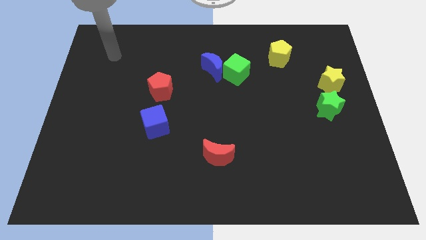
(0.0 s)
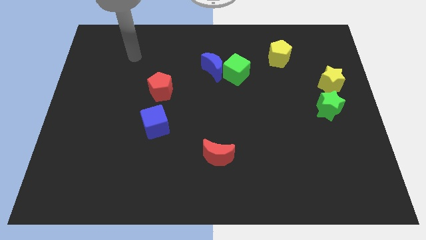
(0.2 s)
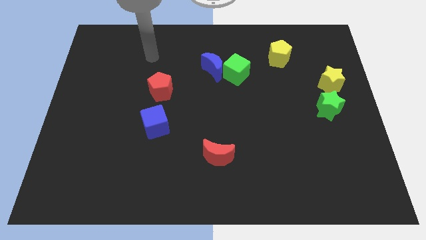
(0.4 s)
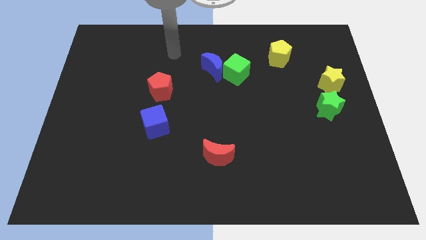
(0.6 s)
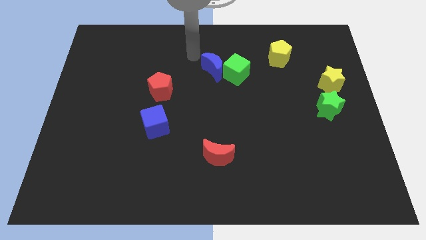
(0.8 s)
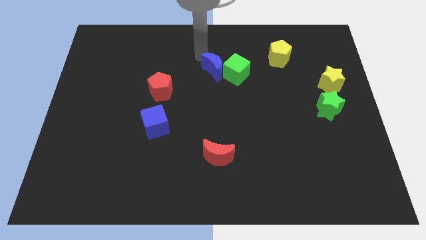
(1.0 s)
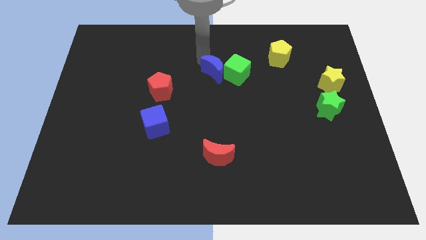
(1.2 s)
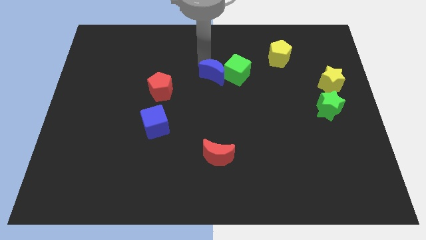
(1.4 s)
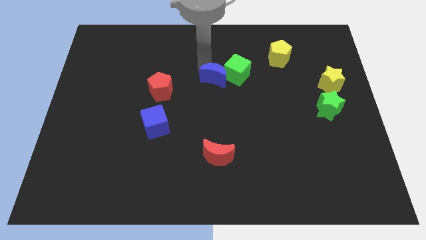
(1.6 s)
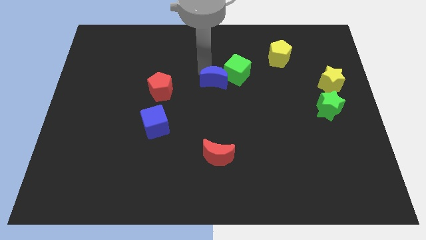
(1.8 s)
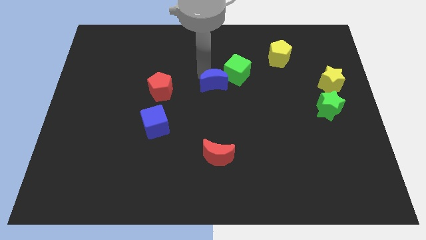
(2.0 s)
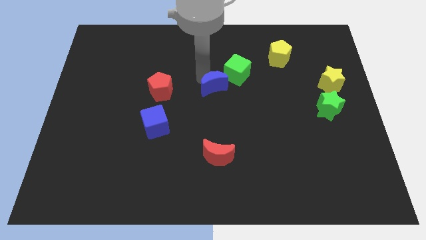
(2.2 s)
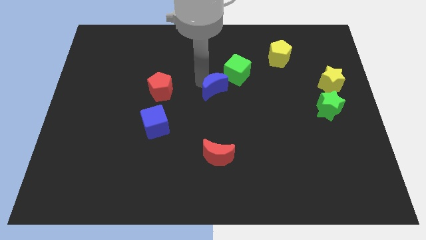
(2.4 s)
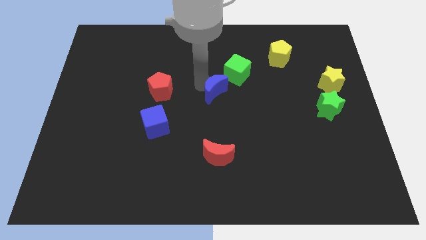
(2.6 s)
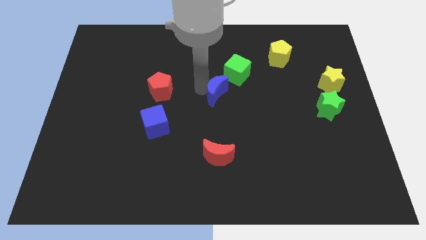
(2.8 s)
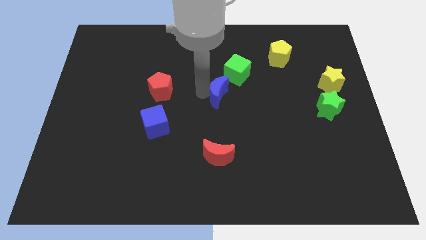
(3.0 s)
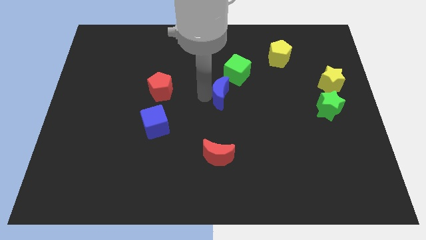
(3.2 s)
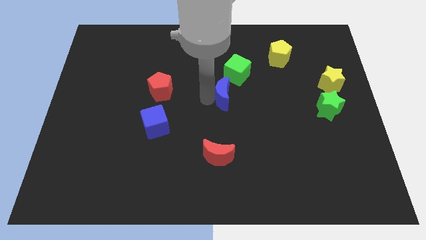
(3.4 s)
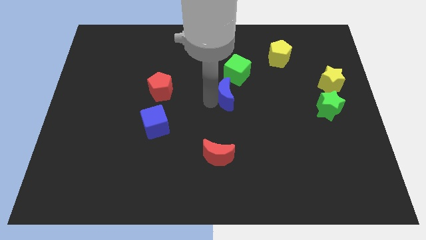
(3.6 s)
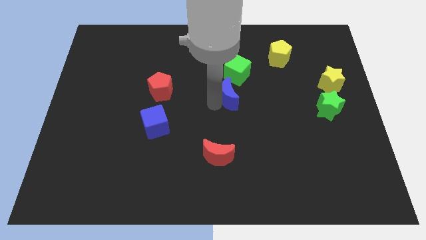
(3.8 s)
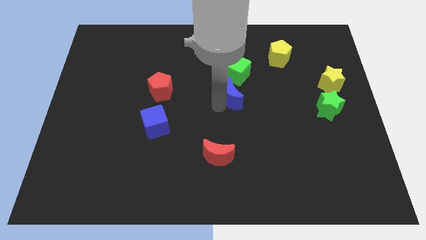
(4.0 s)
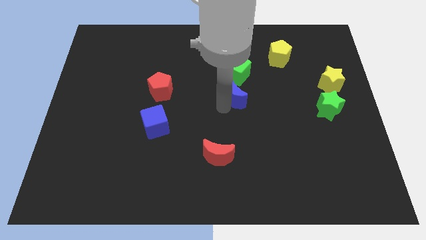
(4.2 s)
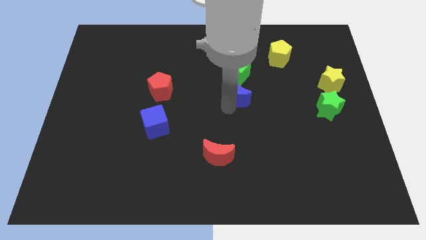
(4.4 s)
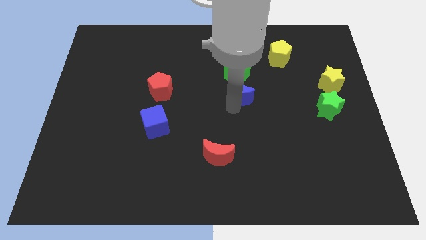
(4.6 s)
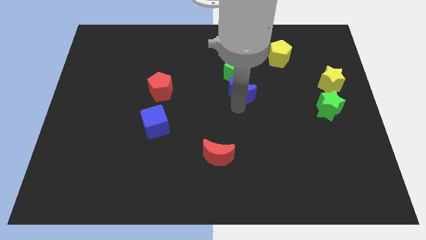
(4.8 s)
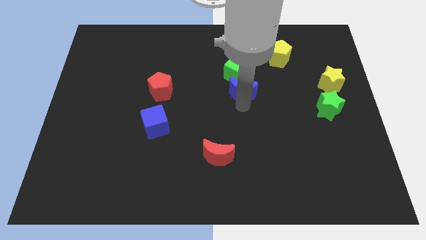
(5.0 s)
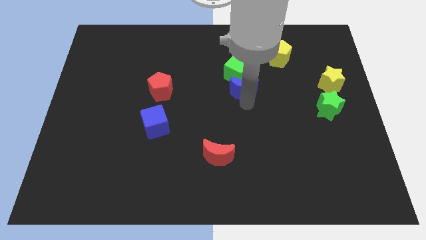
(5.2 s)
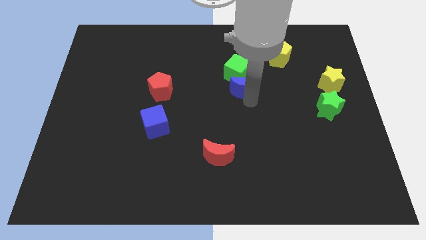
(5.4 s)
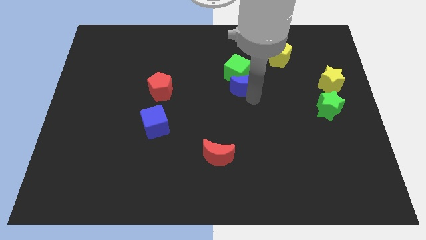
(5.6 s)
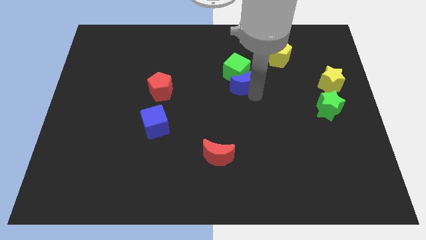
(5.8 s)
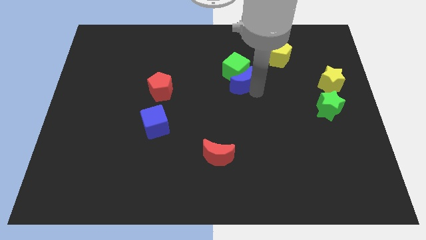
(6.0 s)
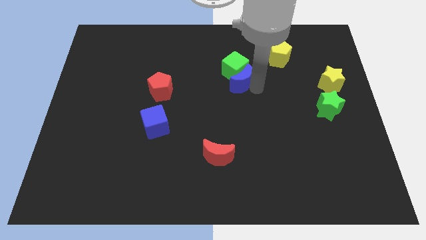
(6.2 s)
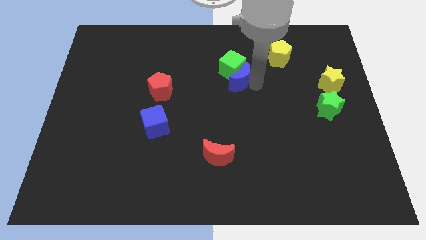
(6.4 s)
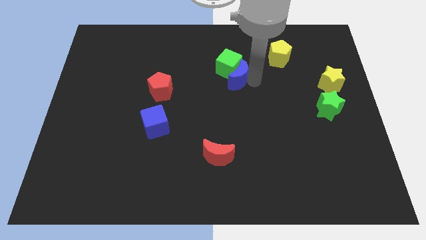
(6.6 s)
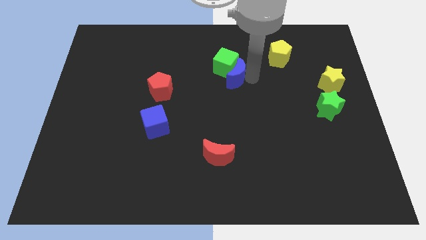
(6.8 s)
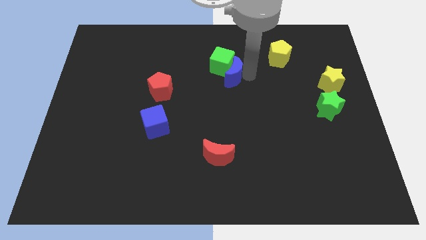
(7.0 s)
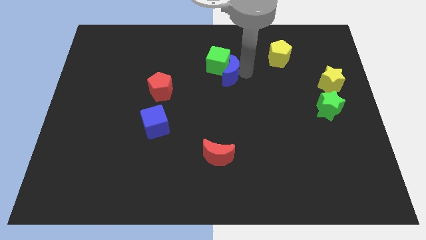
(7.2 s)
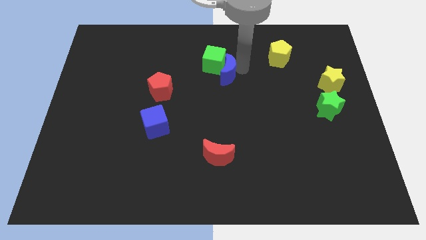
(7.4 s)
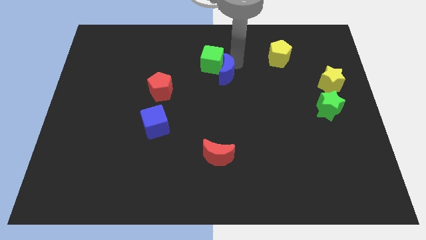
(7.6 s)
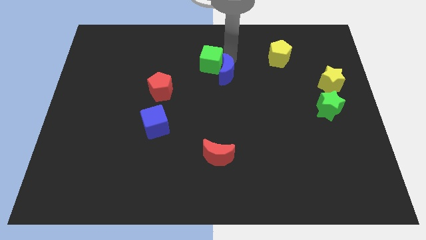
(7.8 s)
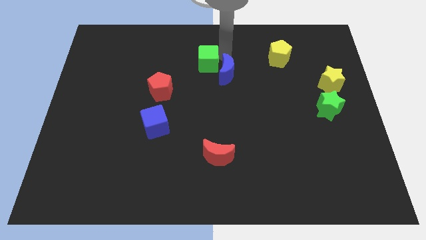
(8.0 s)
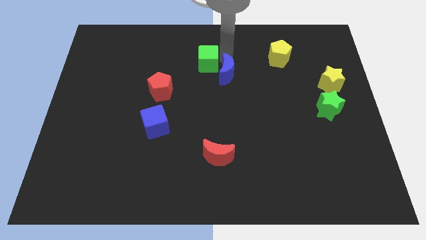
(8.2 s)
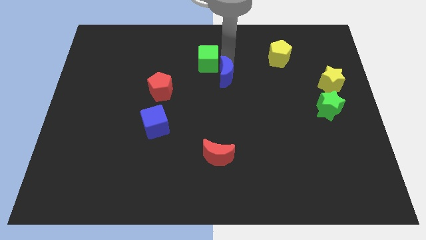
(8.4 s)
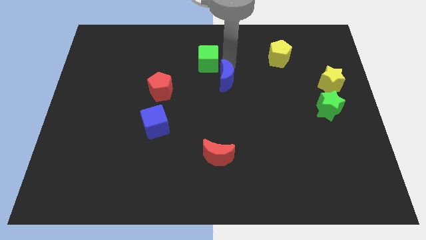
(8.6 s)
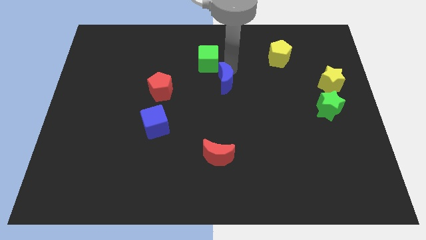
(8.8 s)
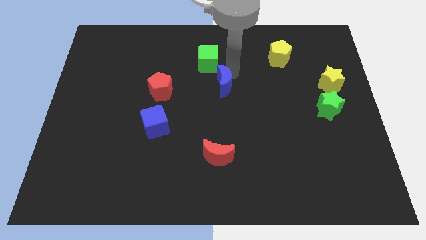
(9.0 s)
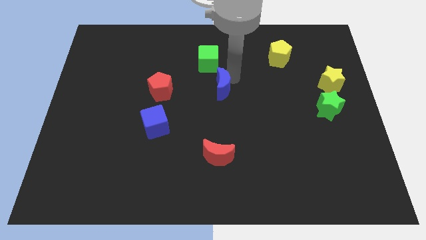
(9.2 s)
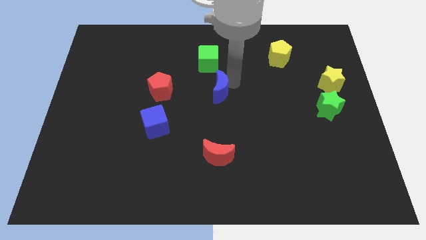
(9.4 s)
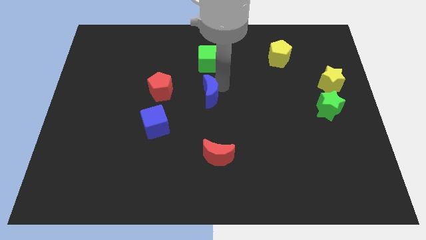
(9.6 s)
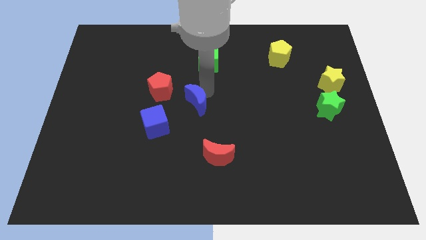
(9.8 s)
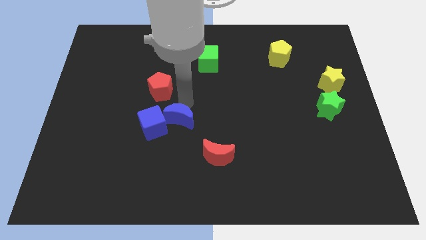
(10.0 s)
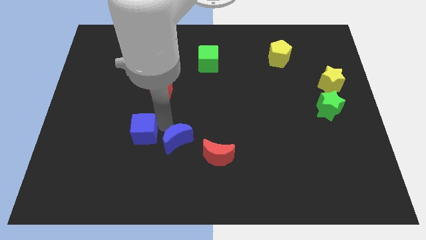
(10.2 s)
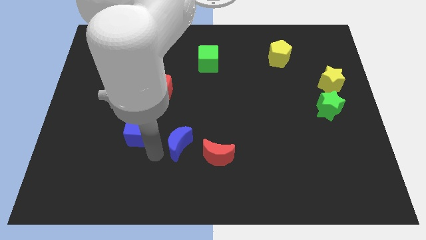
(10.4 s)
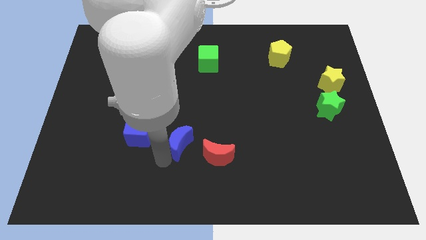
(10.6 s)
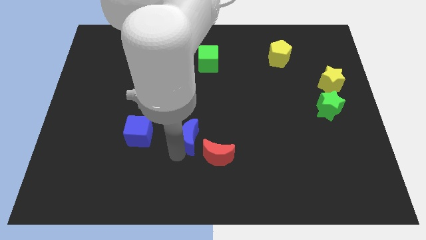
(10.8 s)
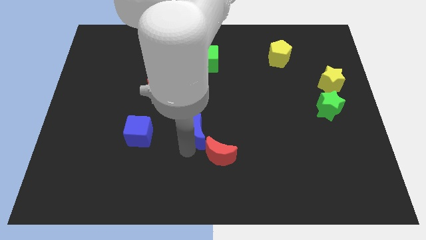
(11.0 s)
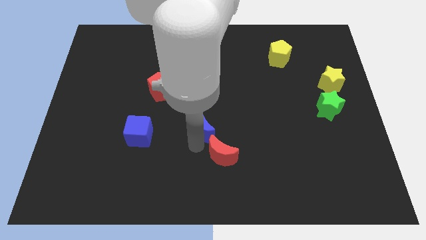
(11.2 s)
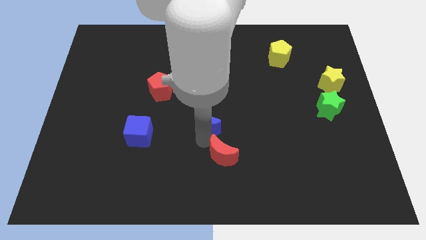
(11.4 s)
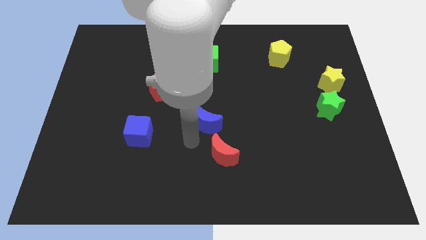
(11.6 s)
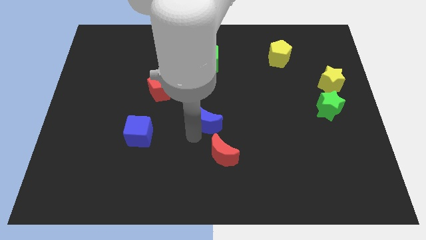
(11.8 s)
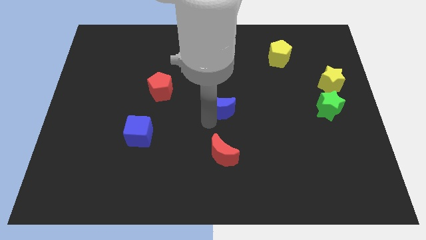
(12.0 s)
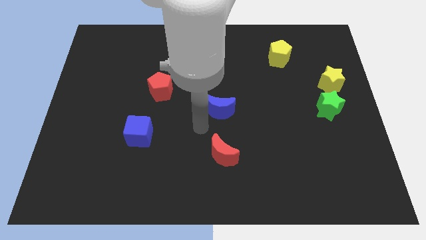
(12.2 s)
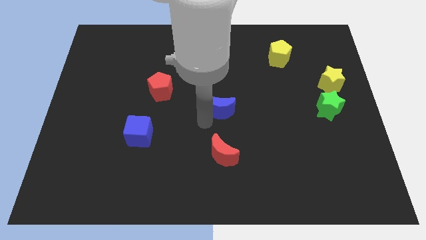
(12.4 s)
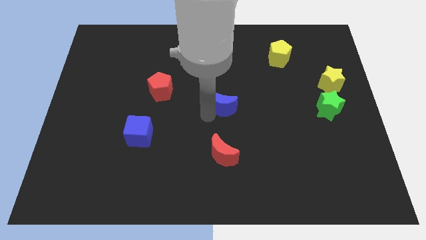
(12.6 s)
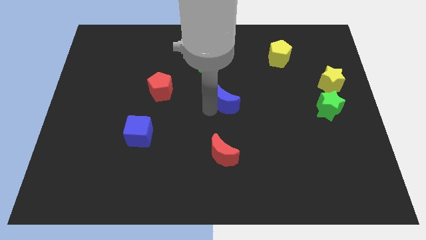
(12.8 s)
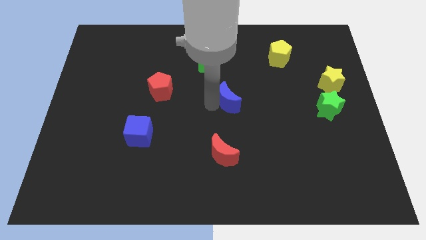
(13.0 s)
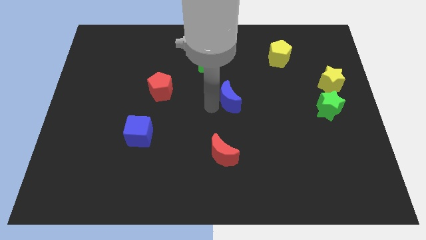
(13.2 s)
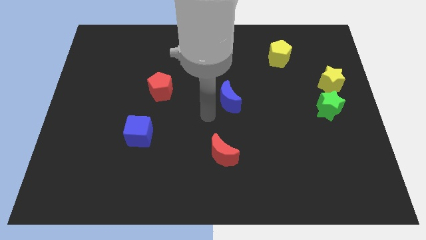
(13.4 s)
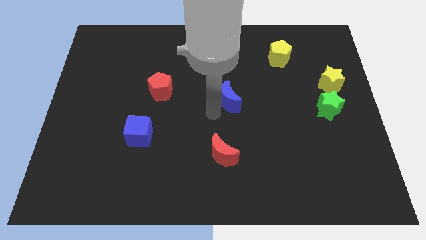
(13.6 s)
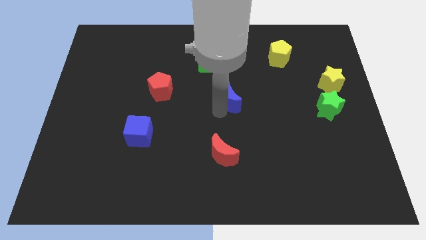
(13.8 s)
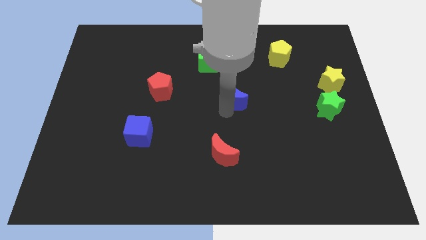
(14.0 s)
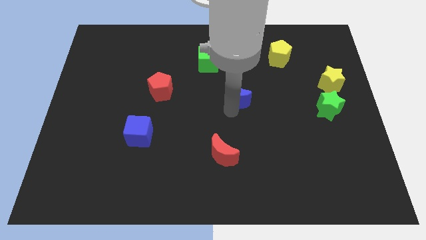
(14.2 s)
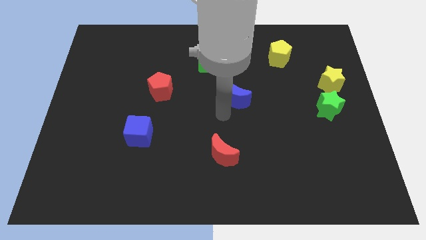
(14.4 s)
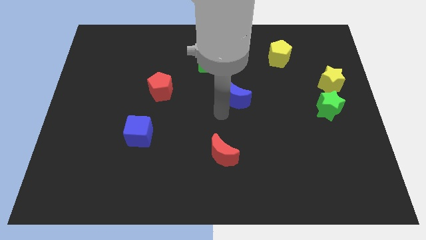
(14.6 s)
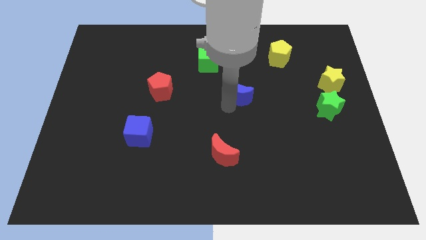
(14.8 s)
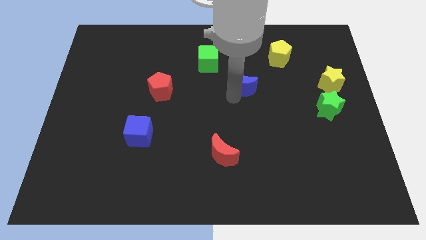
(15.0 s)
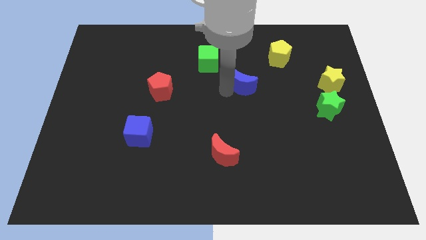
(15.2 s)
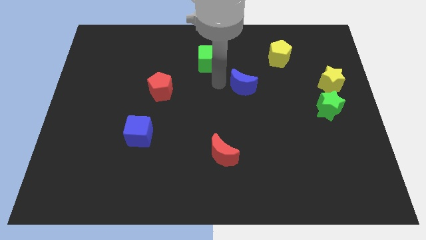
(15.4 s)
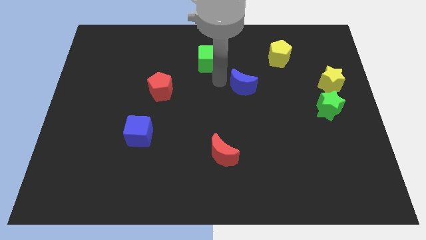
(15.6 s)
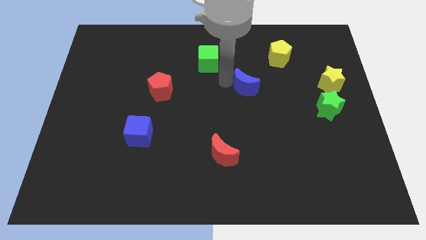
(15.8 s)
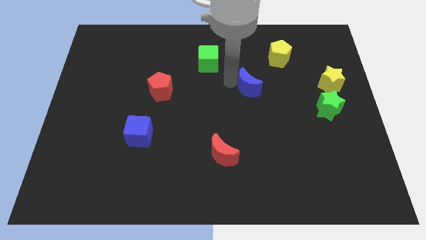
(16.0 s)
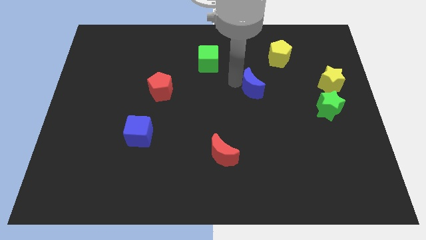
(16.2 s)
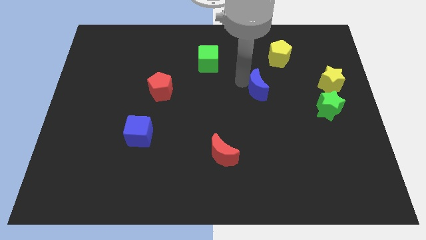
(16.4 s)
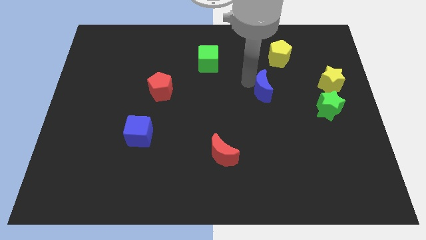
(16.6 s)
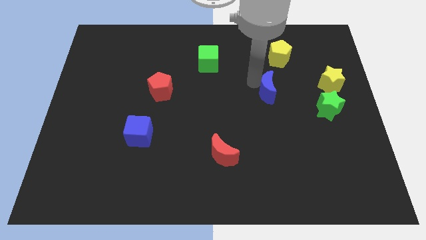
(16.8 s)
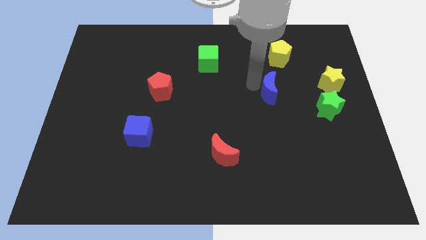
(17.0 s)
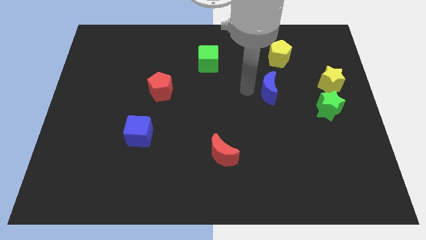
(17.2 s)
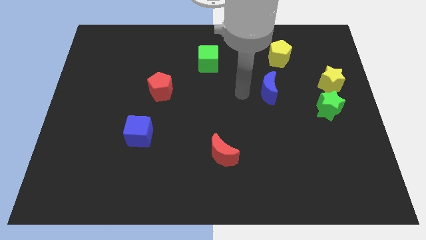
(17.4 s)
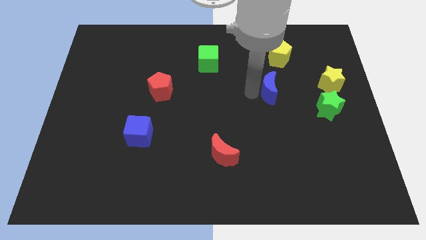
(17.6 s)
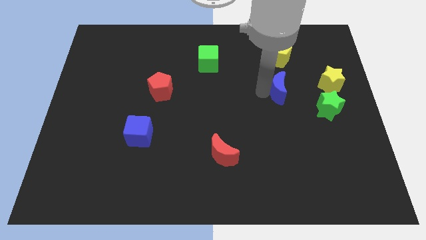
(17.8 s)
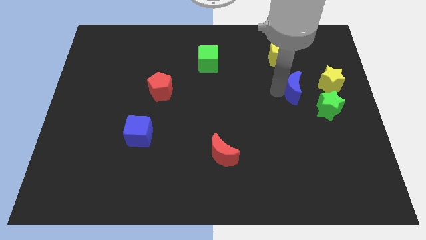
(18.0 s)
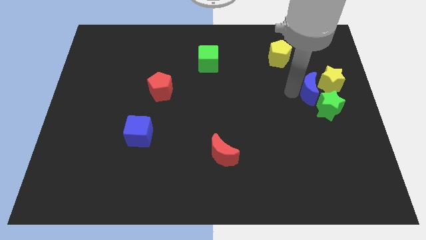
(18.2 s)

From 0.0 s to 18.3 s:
slide the blue moon towards the yellow star
